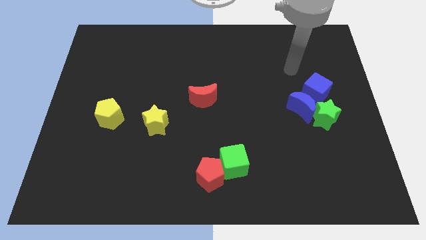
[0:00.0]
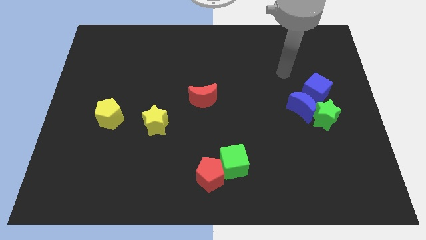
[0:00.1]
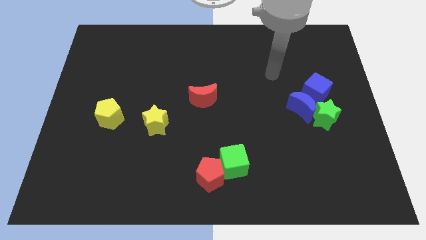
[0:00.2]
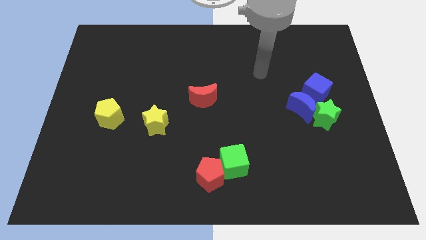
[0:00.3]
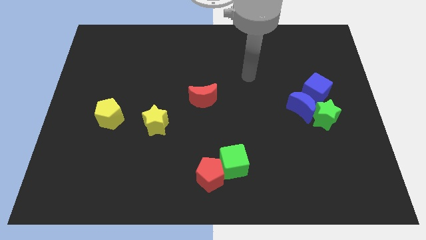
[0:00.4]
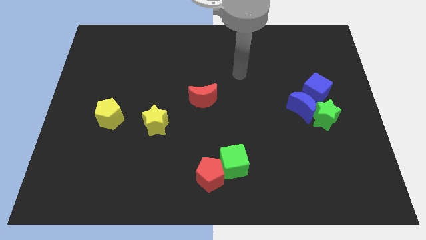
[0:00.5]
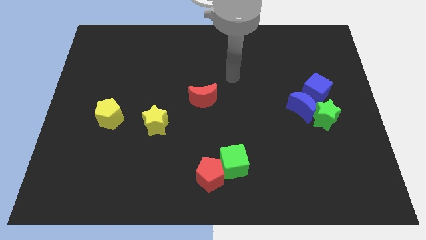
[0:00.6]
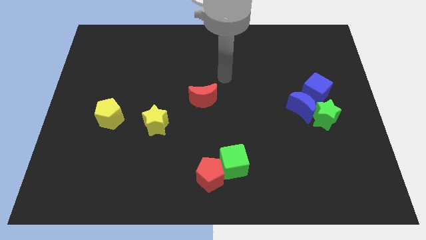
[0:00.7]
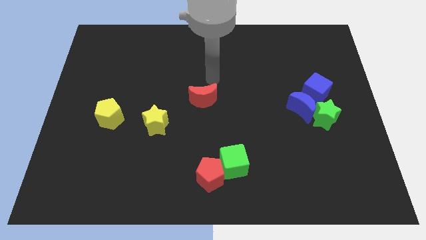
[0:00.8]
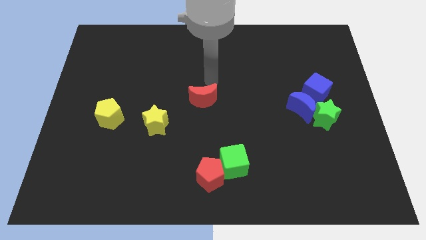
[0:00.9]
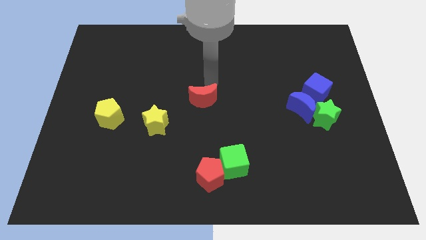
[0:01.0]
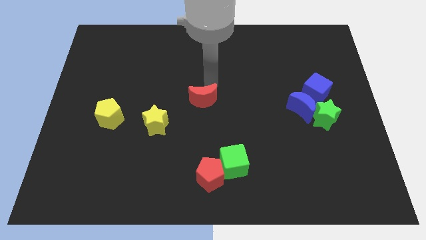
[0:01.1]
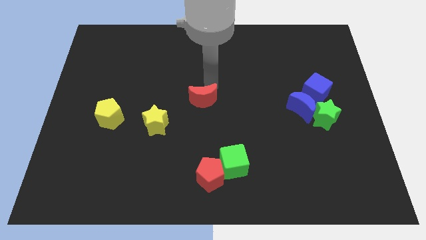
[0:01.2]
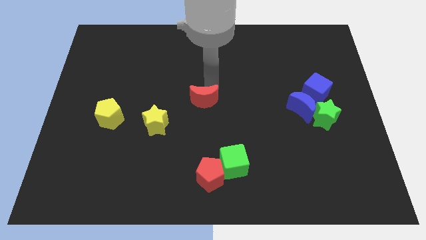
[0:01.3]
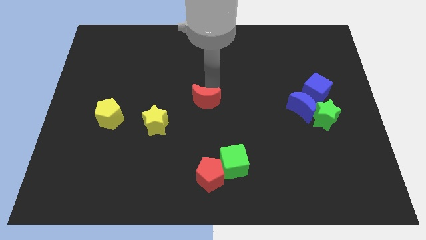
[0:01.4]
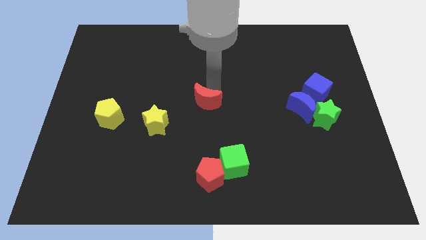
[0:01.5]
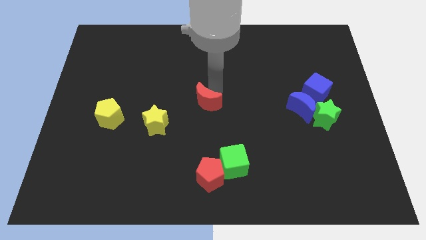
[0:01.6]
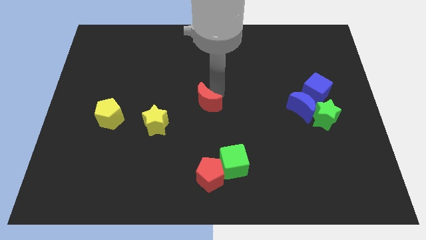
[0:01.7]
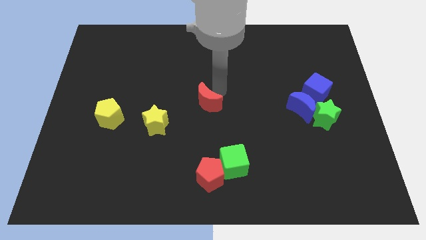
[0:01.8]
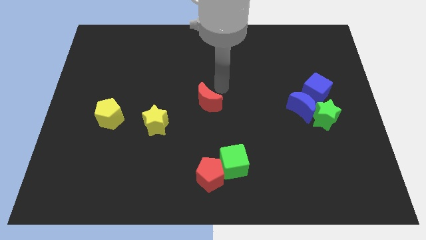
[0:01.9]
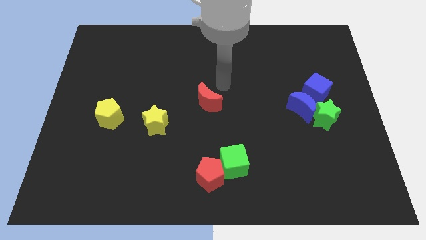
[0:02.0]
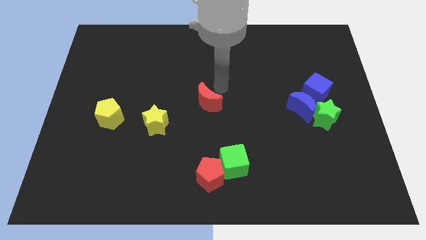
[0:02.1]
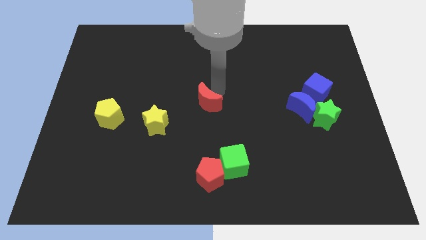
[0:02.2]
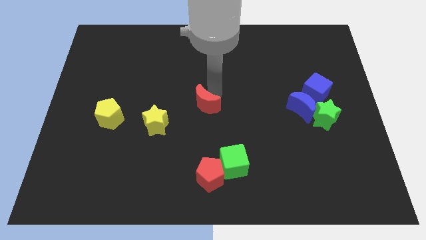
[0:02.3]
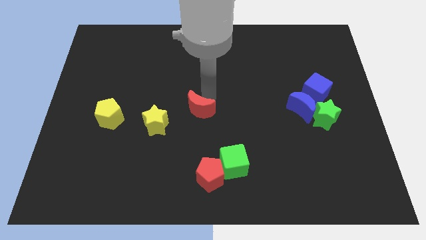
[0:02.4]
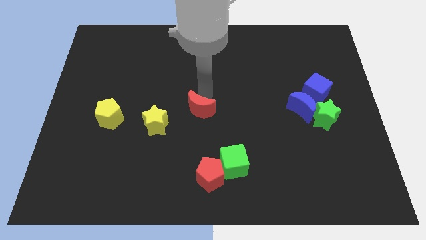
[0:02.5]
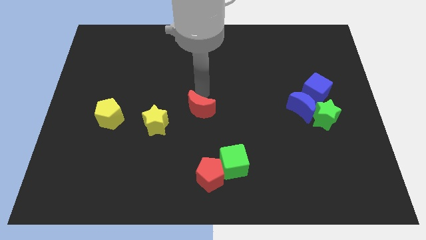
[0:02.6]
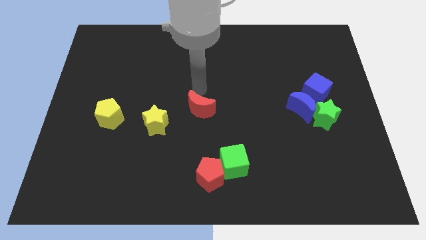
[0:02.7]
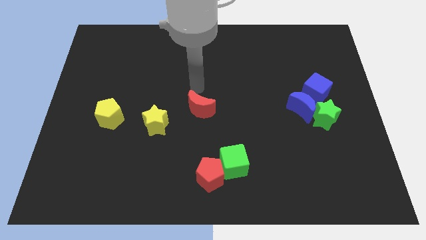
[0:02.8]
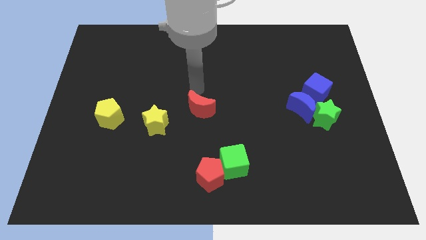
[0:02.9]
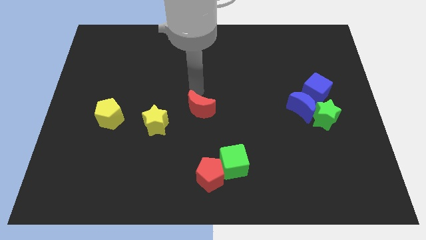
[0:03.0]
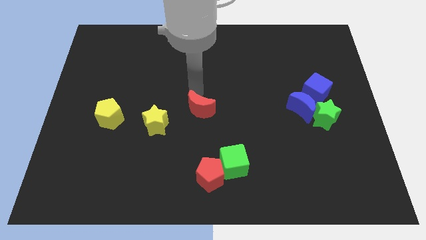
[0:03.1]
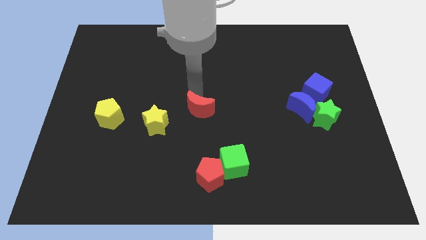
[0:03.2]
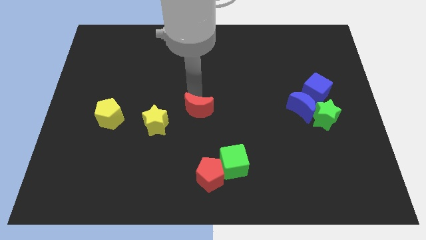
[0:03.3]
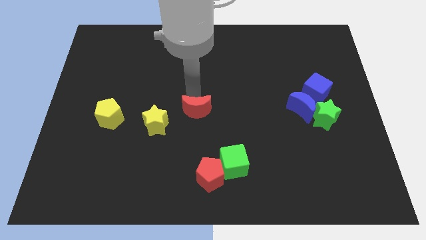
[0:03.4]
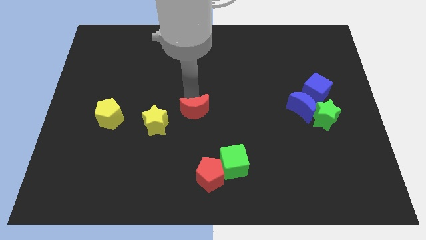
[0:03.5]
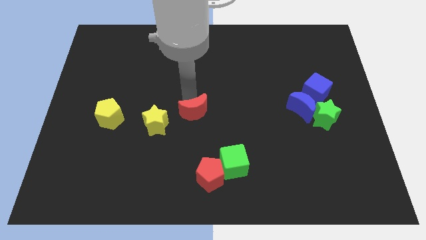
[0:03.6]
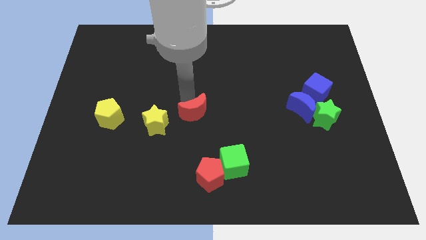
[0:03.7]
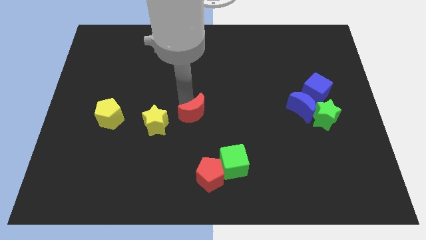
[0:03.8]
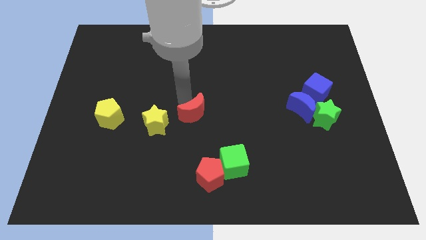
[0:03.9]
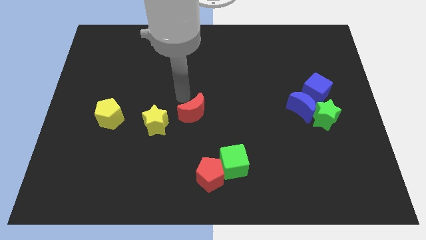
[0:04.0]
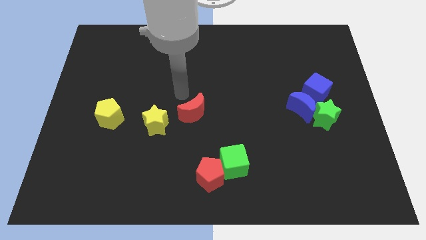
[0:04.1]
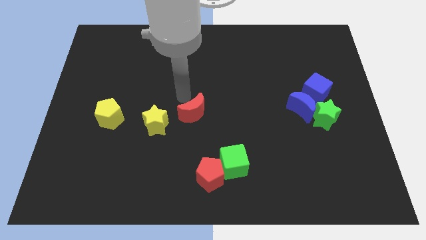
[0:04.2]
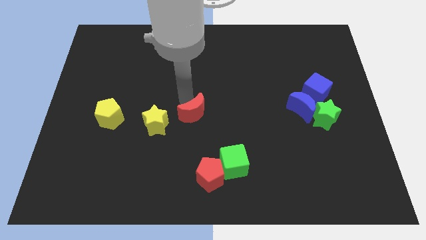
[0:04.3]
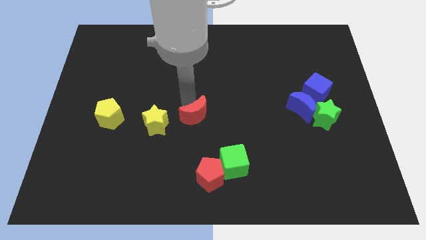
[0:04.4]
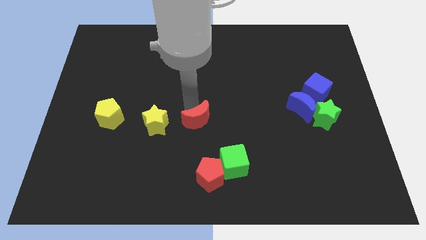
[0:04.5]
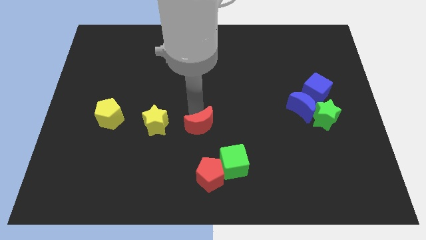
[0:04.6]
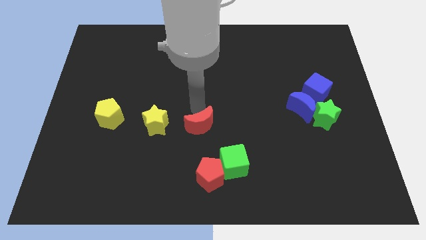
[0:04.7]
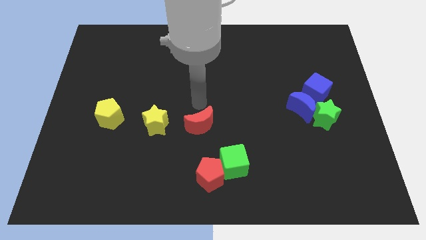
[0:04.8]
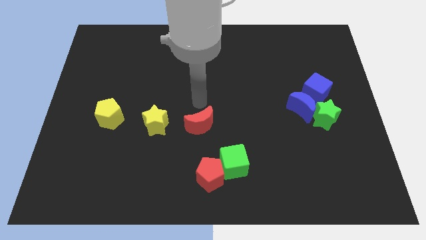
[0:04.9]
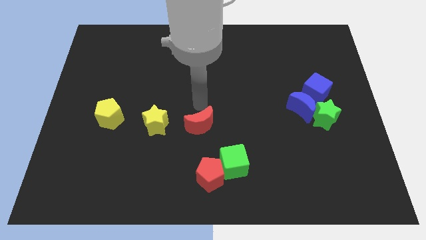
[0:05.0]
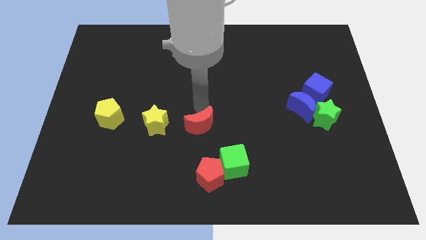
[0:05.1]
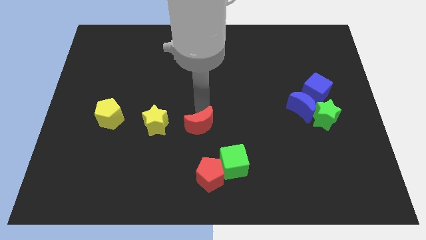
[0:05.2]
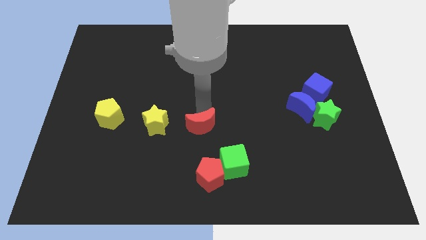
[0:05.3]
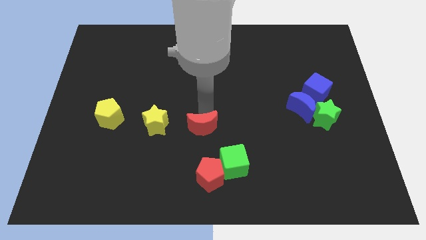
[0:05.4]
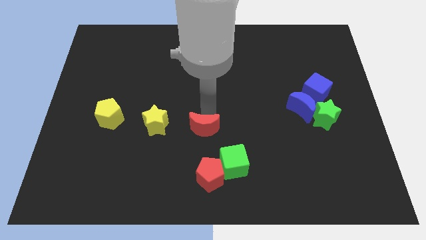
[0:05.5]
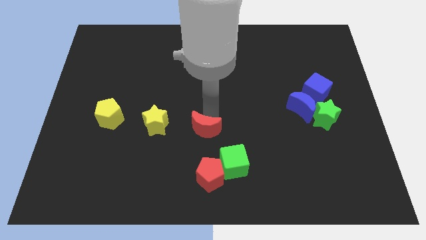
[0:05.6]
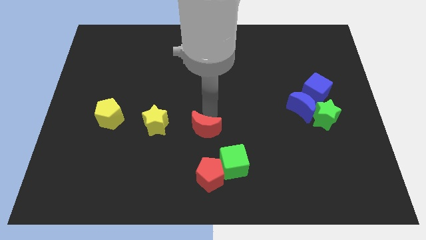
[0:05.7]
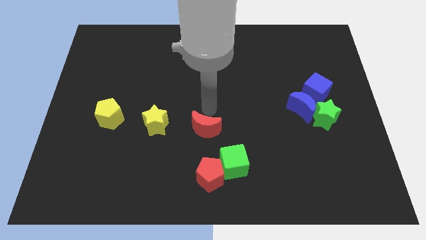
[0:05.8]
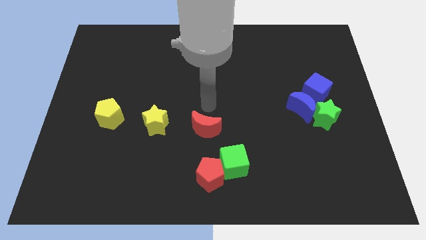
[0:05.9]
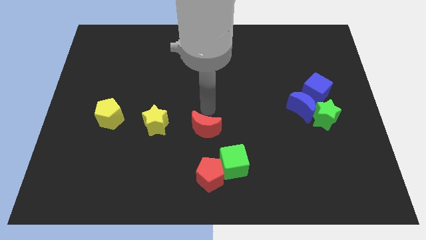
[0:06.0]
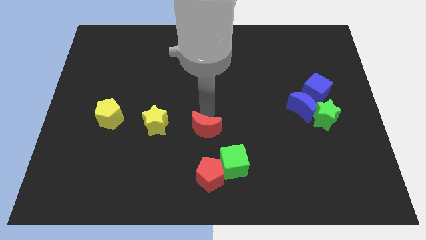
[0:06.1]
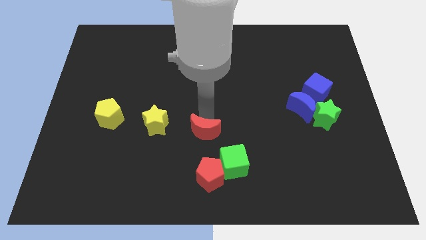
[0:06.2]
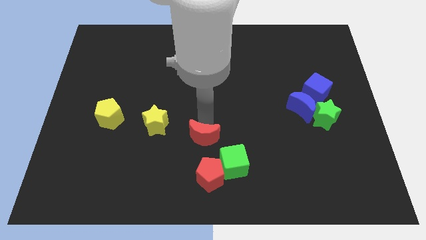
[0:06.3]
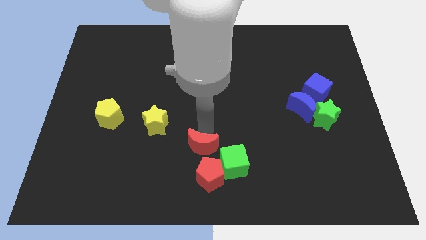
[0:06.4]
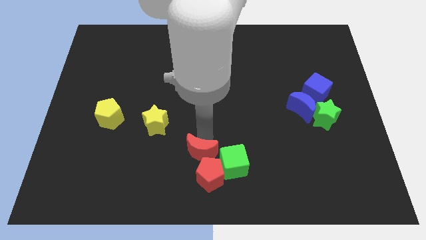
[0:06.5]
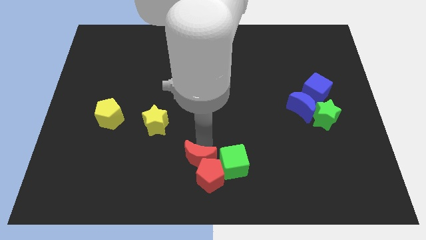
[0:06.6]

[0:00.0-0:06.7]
move the red moon to the bottom side
